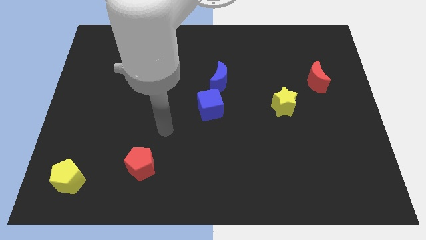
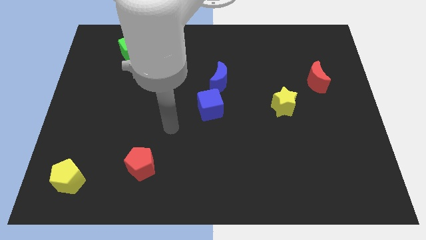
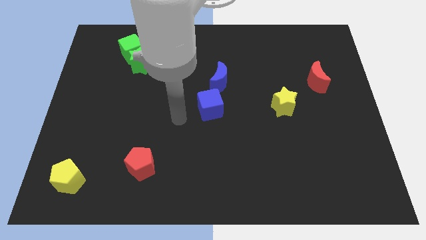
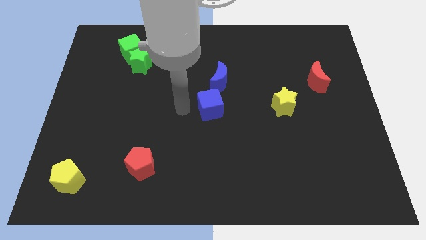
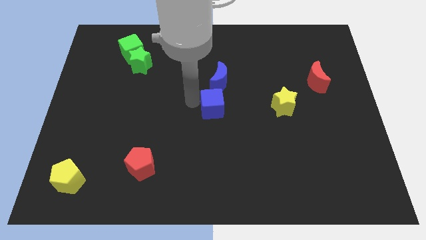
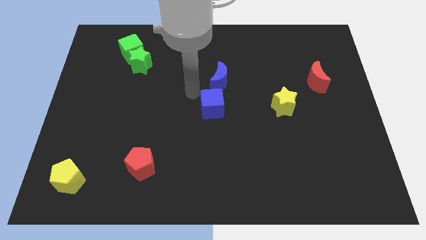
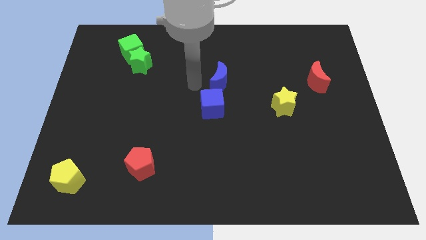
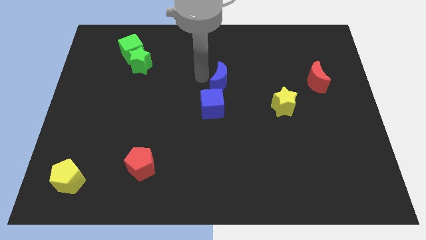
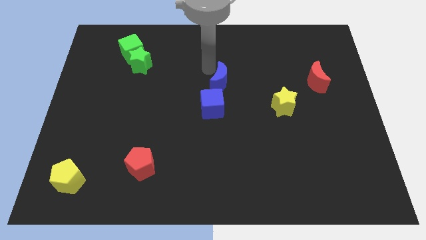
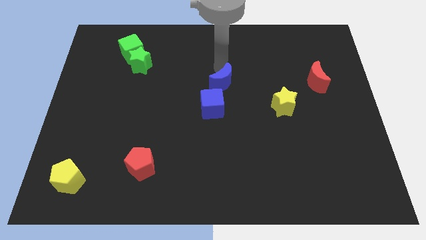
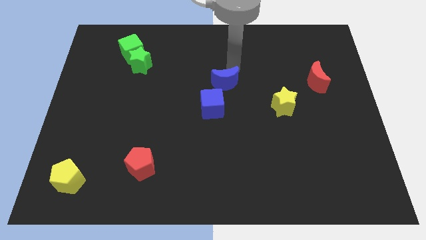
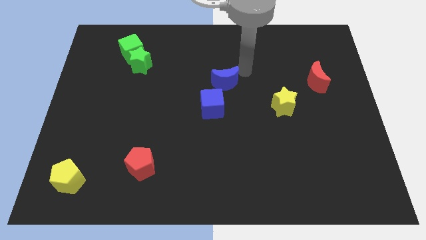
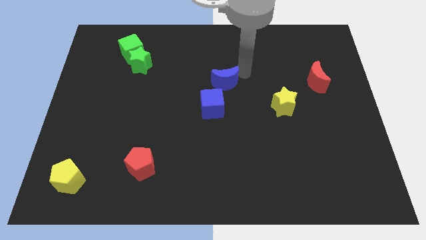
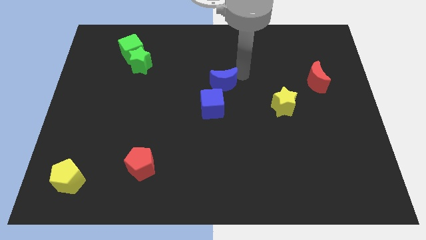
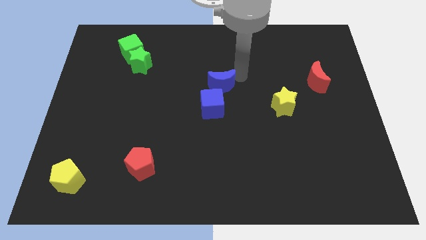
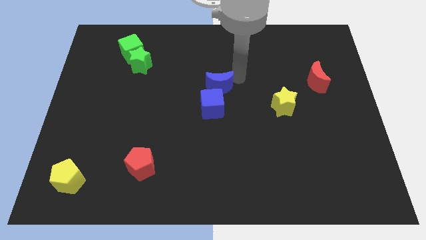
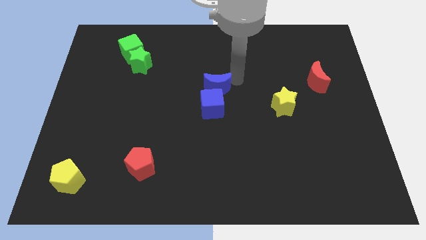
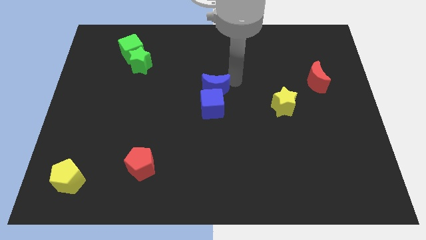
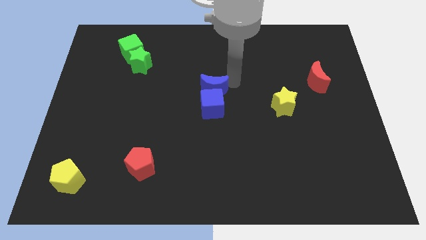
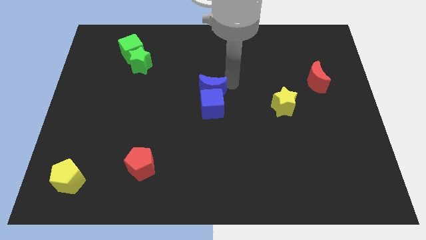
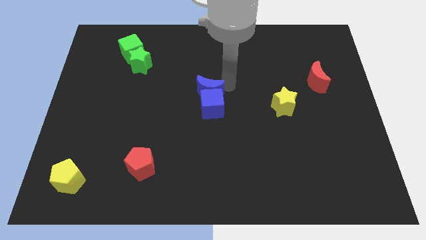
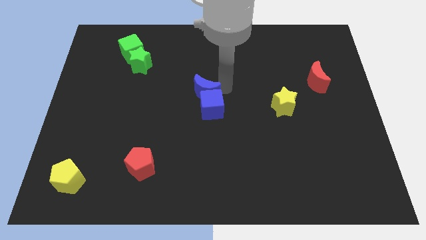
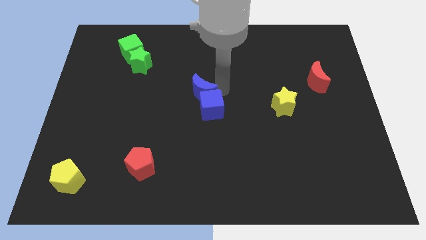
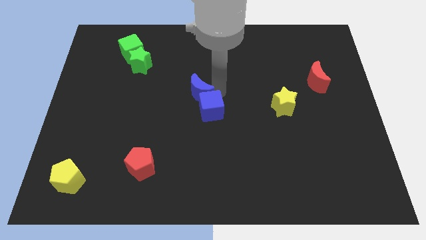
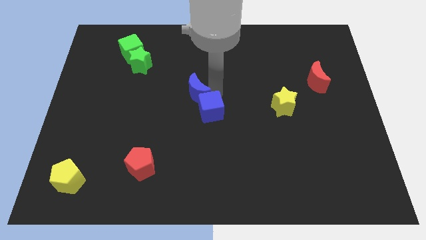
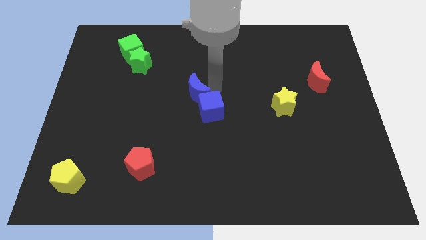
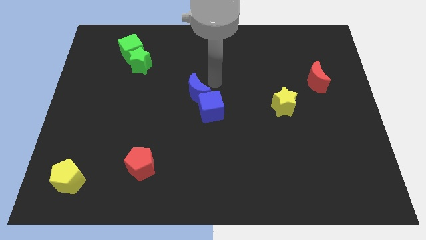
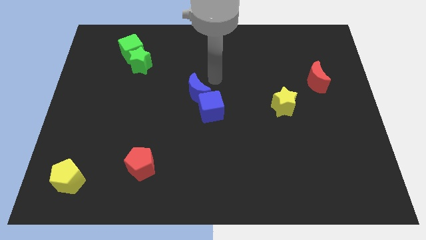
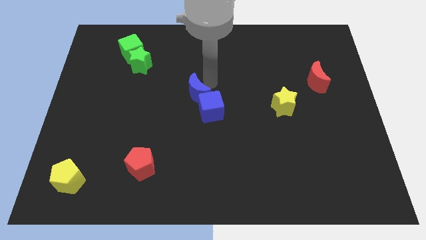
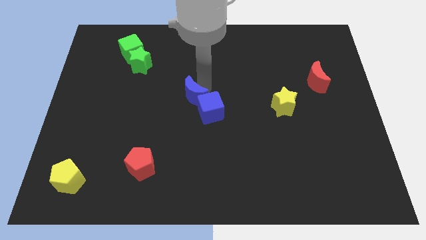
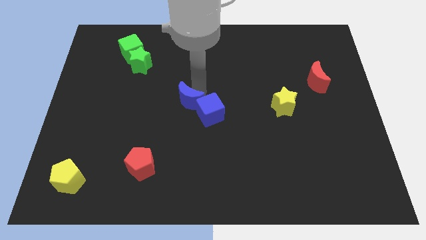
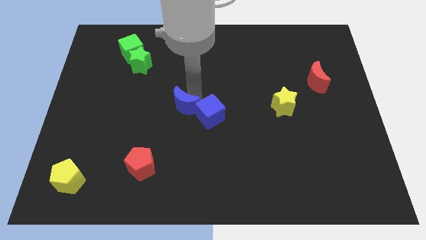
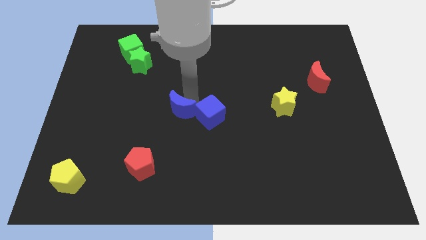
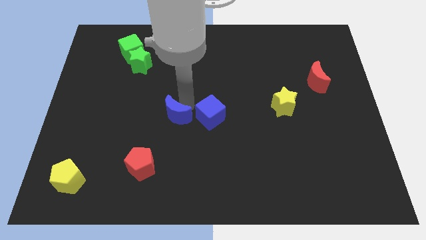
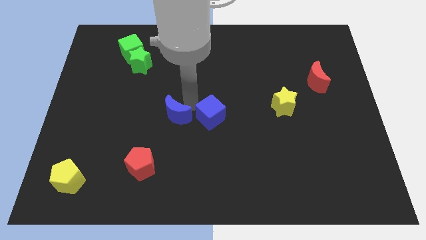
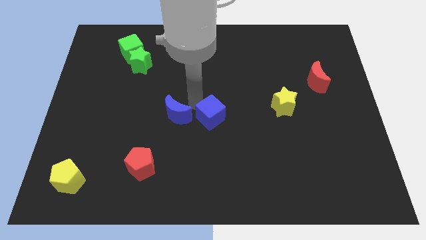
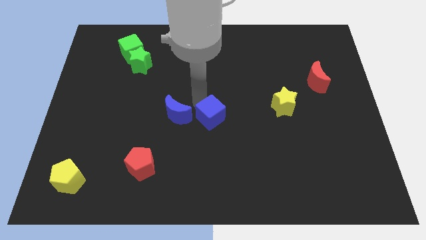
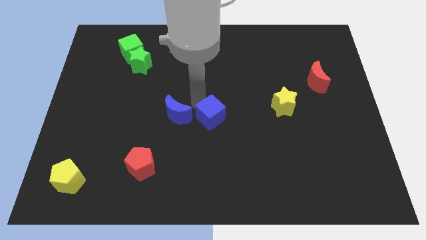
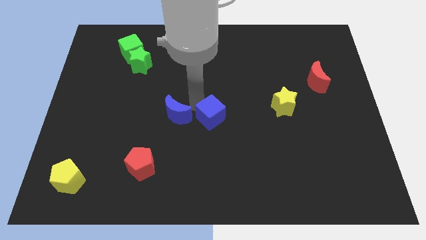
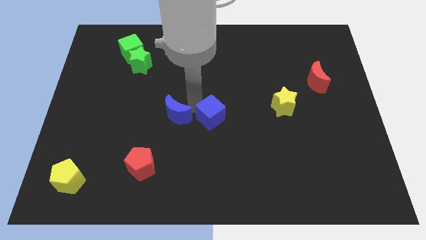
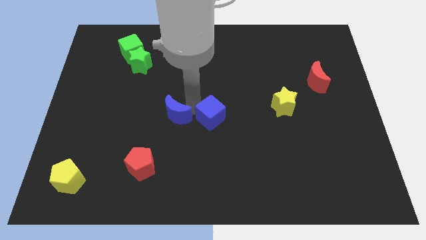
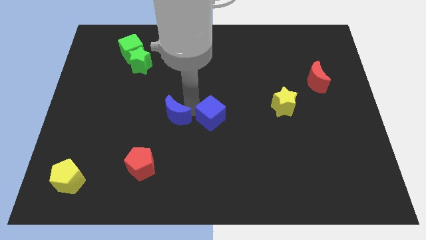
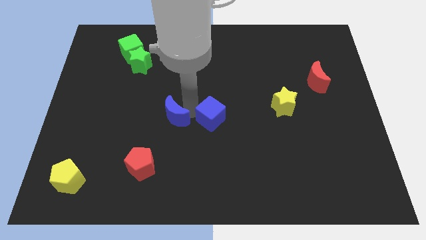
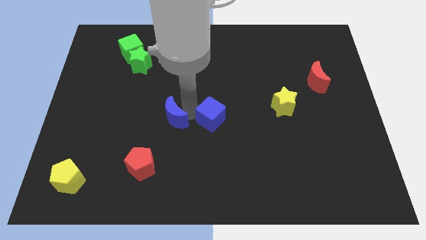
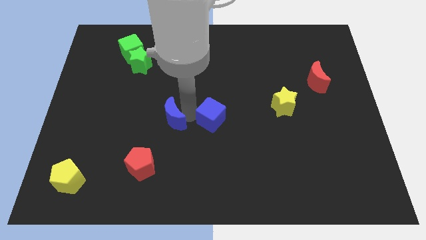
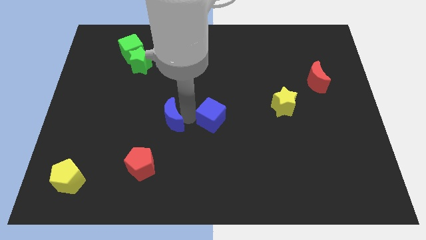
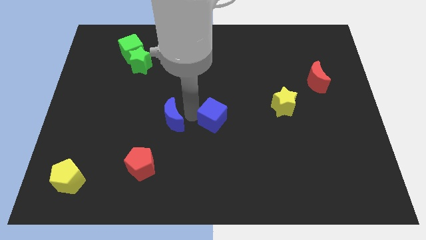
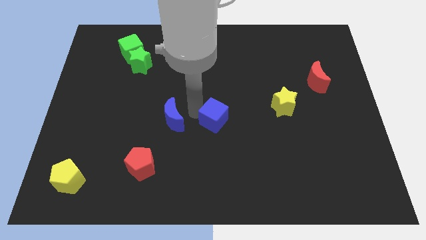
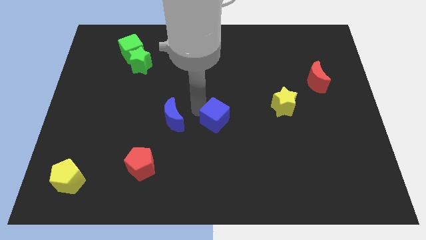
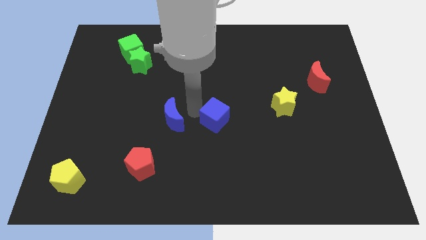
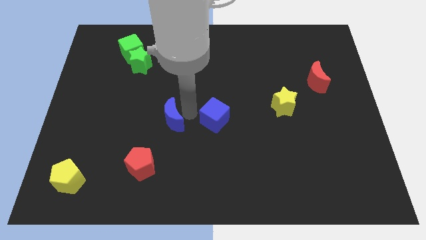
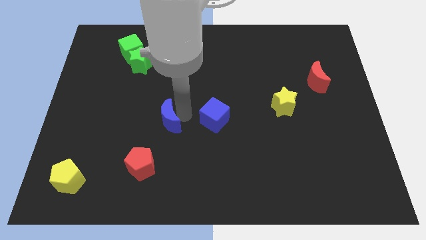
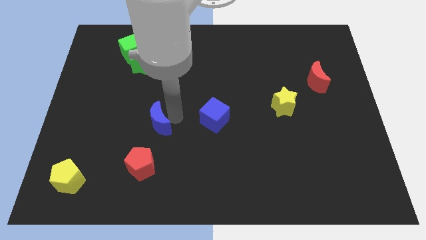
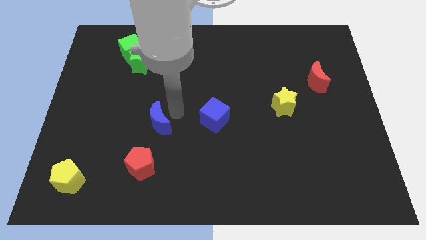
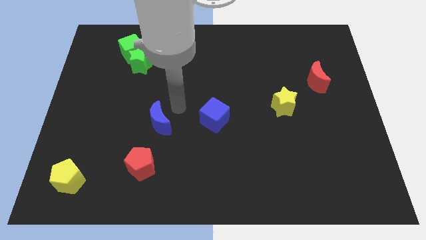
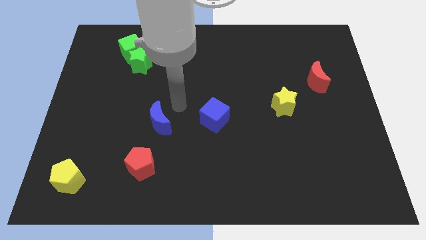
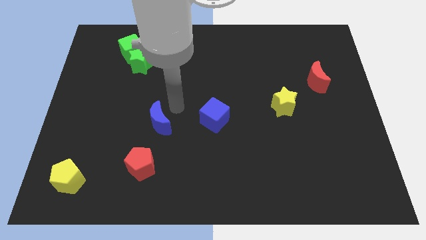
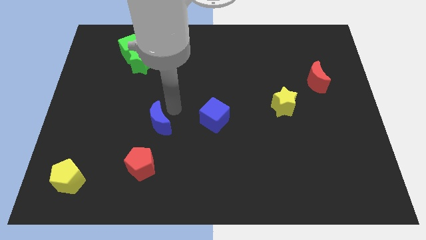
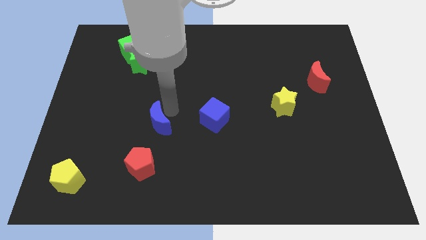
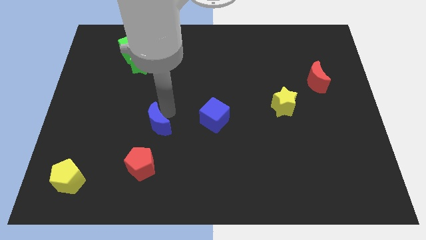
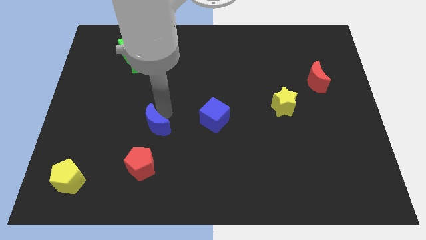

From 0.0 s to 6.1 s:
push the blue moon down and left

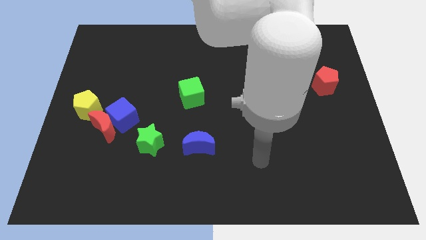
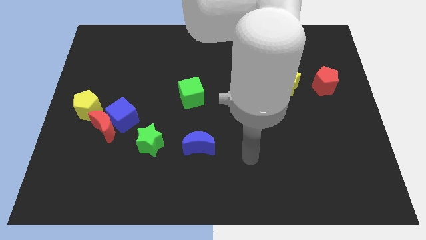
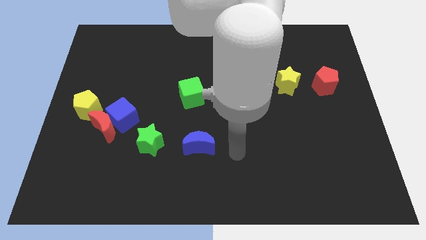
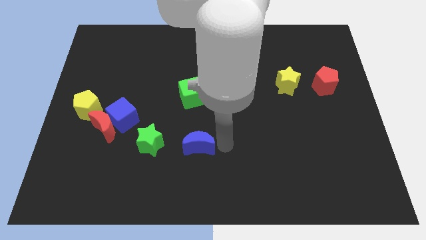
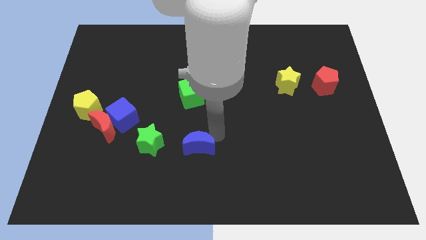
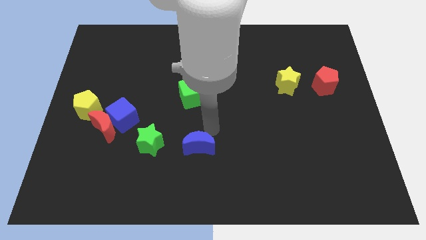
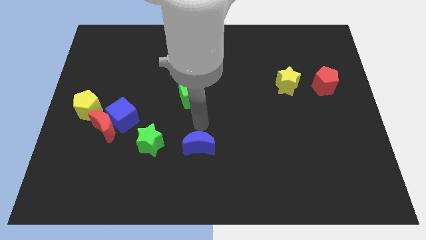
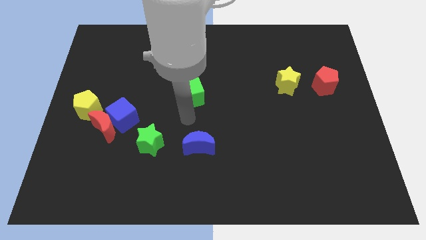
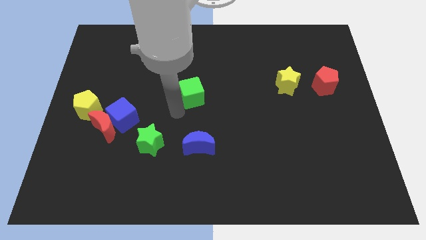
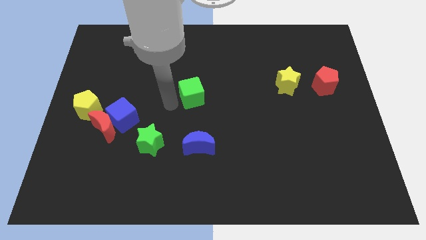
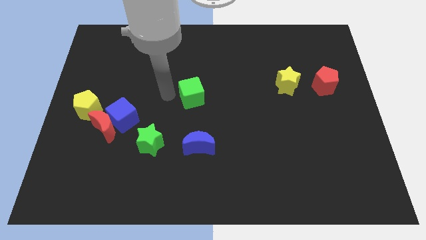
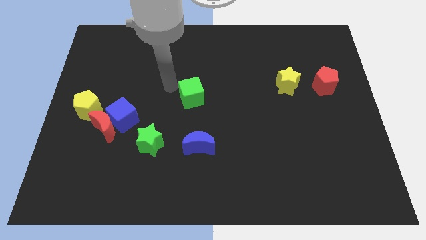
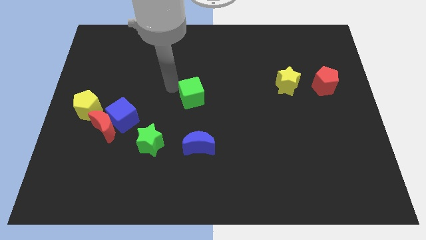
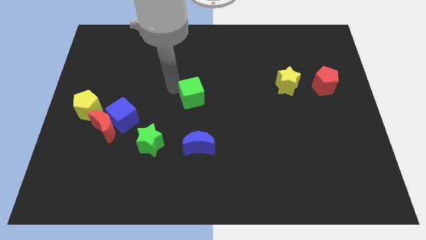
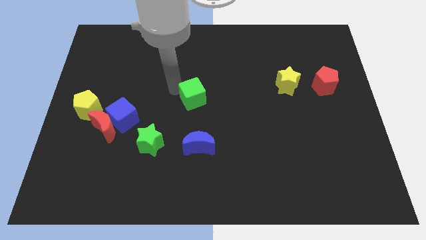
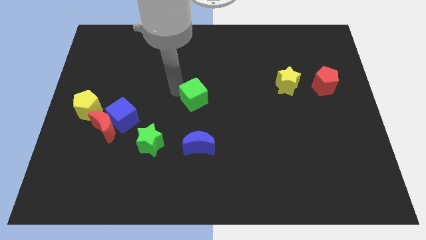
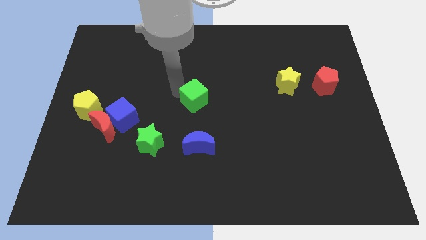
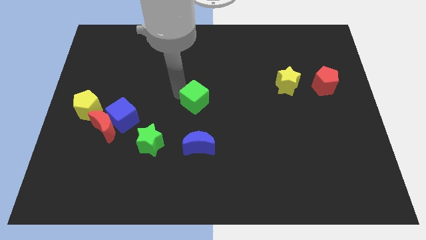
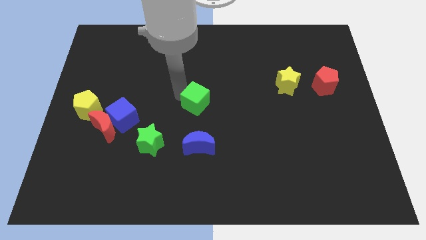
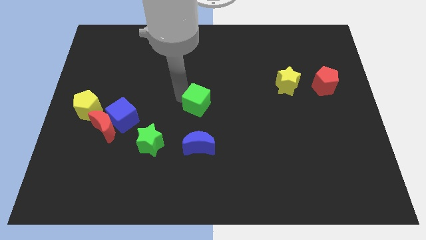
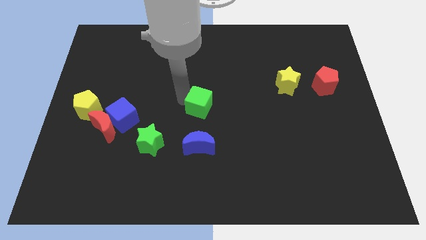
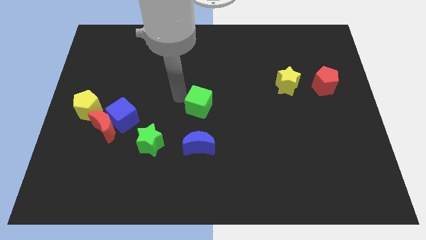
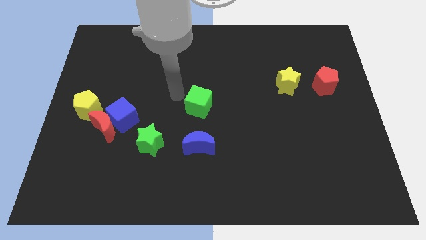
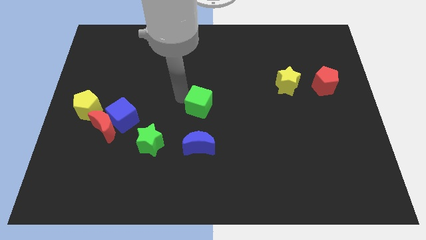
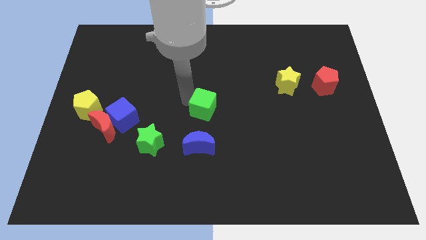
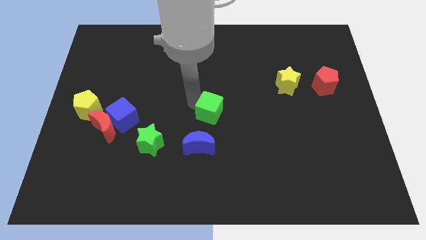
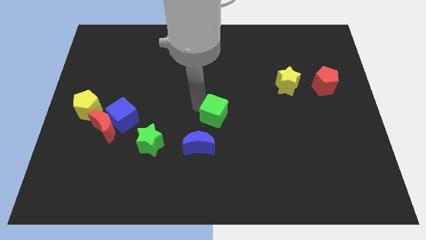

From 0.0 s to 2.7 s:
slightly push the green cube down and then to the right
